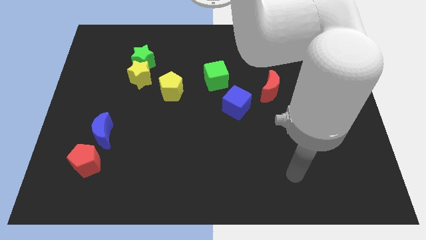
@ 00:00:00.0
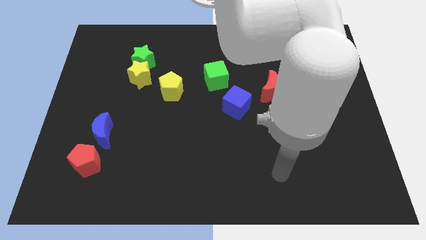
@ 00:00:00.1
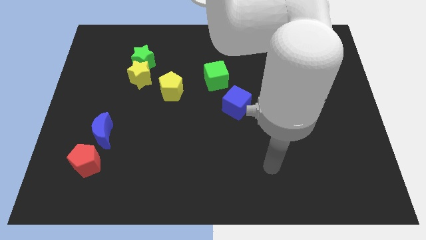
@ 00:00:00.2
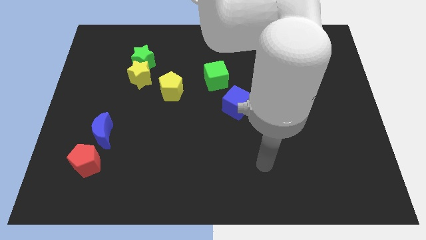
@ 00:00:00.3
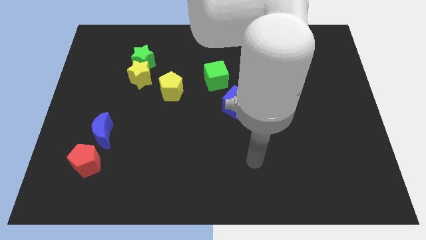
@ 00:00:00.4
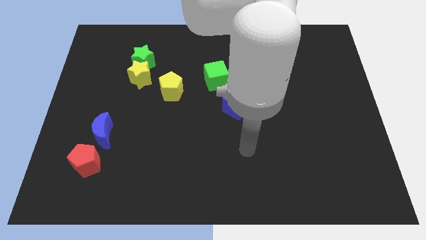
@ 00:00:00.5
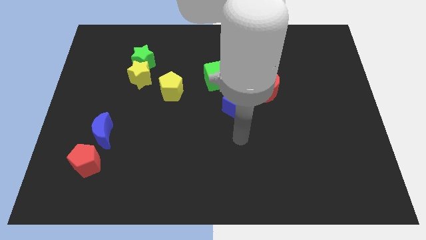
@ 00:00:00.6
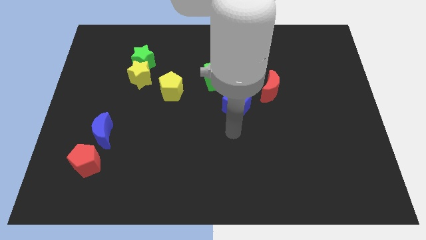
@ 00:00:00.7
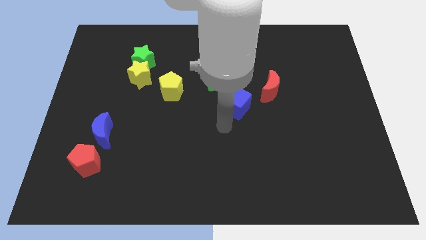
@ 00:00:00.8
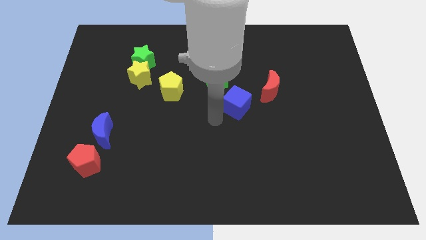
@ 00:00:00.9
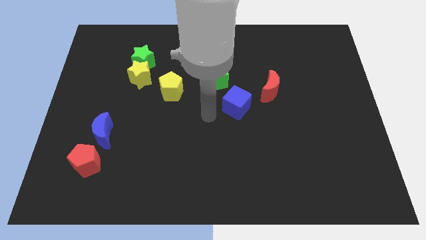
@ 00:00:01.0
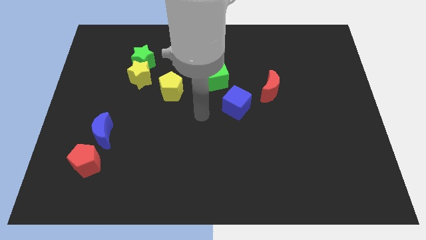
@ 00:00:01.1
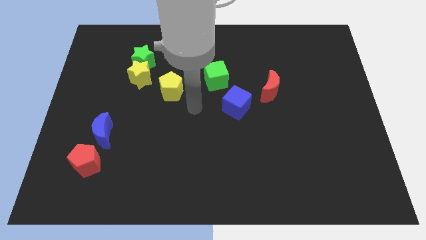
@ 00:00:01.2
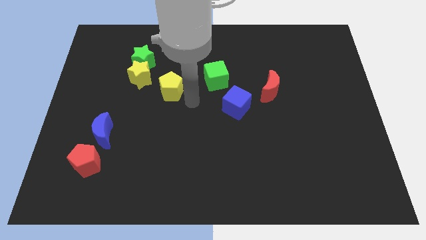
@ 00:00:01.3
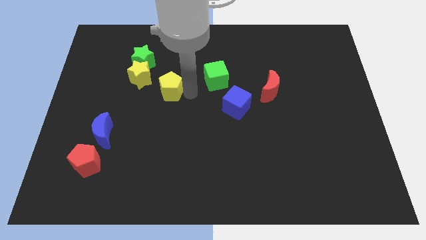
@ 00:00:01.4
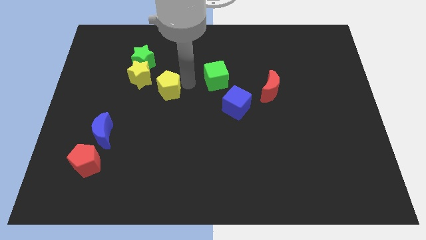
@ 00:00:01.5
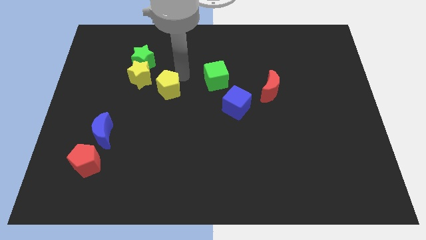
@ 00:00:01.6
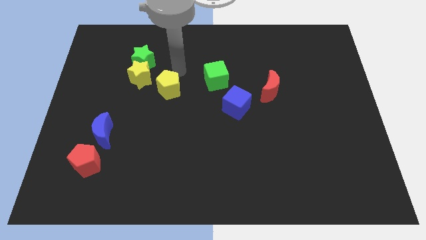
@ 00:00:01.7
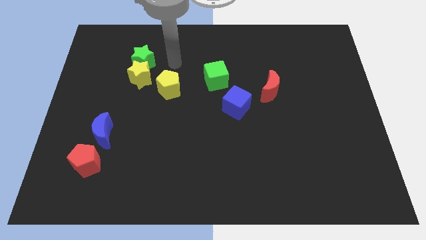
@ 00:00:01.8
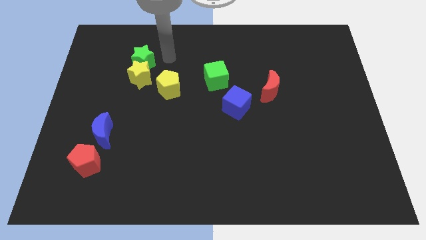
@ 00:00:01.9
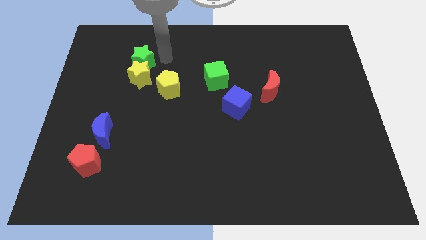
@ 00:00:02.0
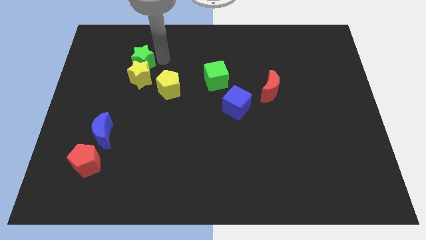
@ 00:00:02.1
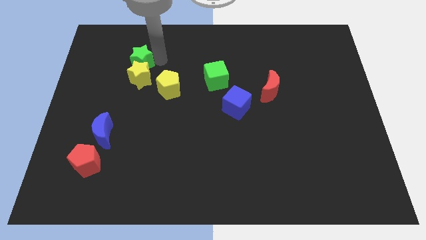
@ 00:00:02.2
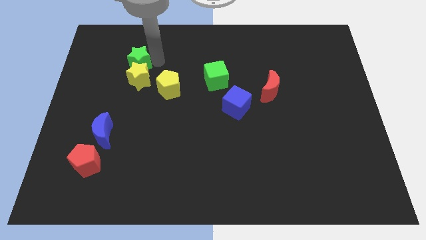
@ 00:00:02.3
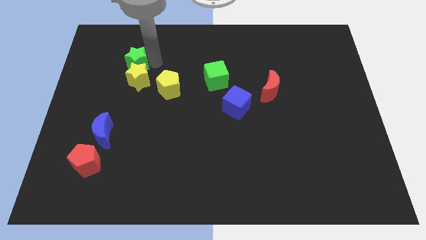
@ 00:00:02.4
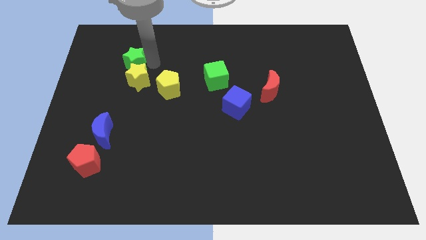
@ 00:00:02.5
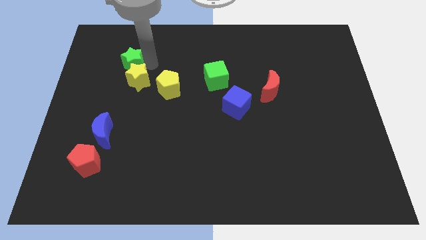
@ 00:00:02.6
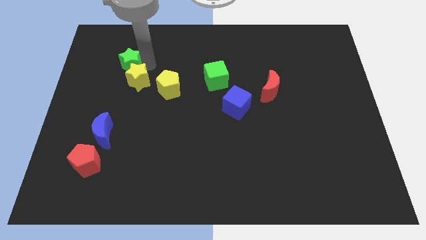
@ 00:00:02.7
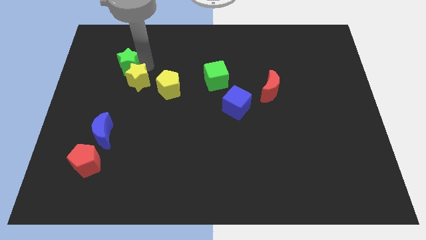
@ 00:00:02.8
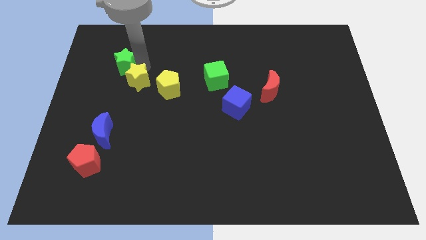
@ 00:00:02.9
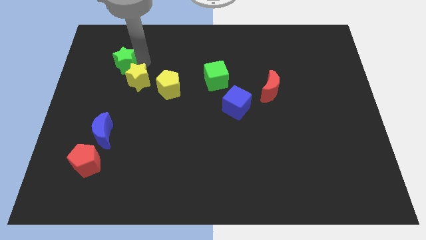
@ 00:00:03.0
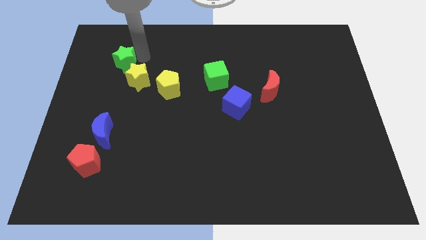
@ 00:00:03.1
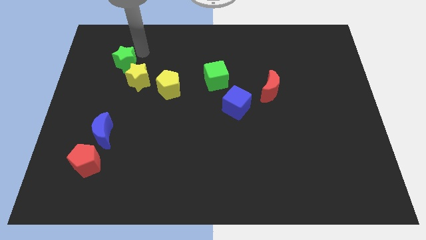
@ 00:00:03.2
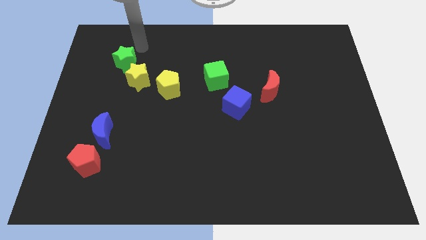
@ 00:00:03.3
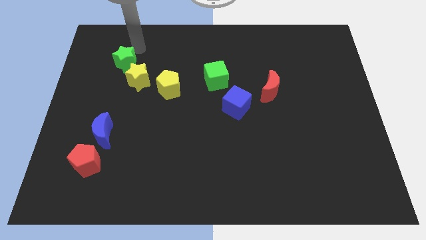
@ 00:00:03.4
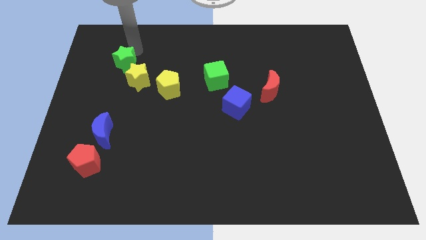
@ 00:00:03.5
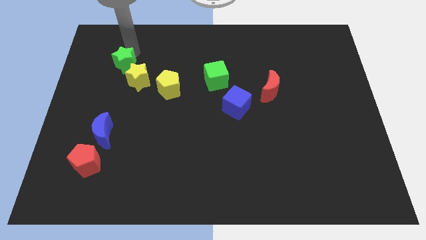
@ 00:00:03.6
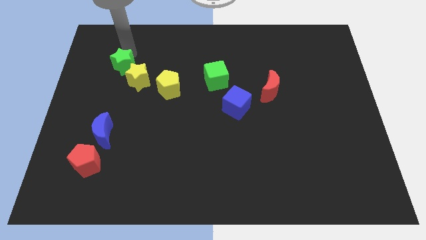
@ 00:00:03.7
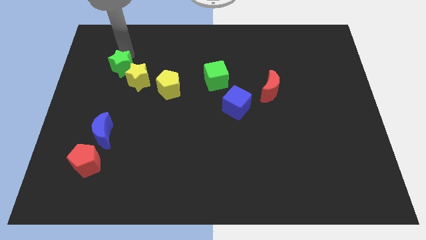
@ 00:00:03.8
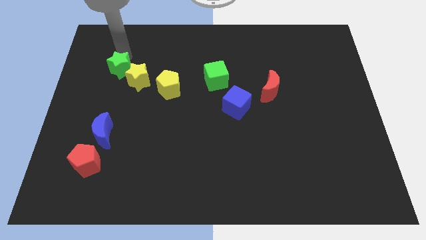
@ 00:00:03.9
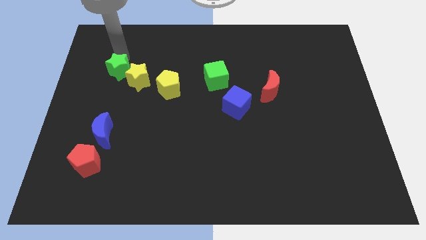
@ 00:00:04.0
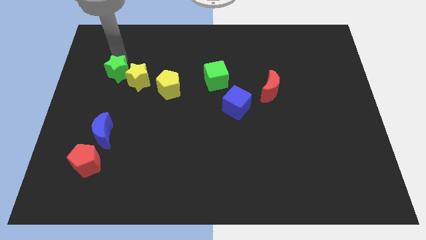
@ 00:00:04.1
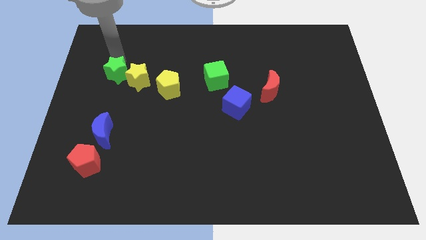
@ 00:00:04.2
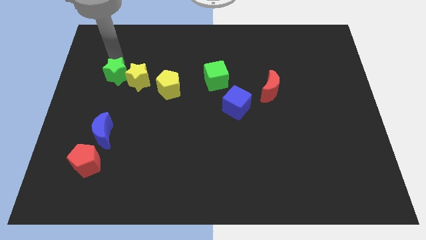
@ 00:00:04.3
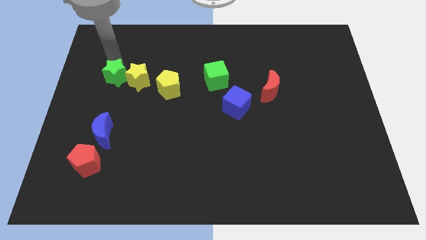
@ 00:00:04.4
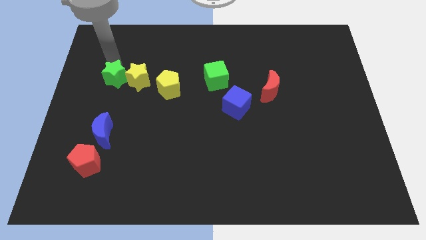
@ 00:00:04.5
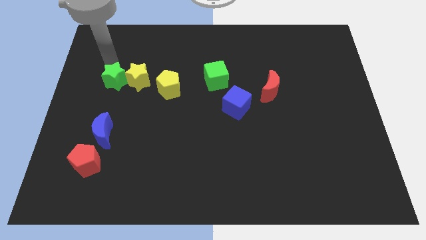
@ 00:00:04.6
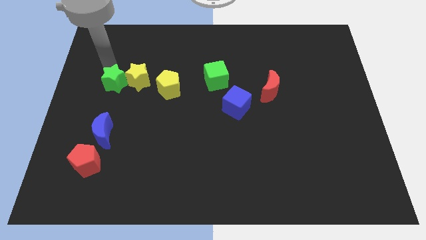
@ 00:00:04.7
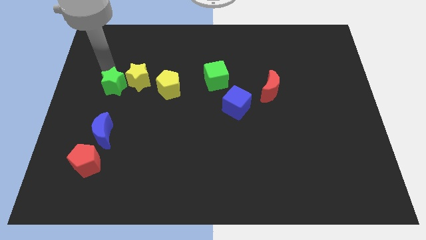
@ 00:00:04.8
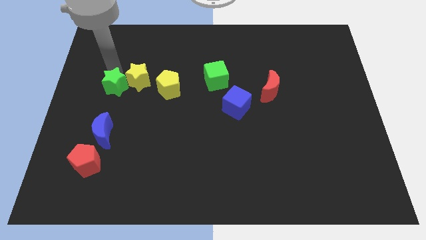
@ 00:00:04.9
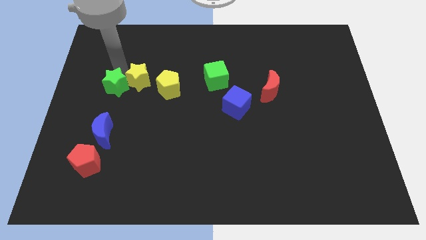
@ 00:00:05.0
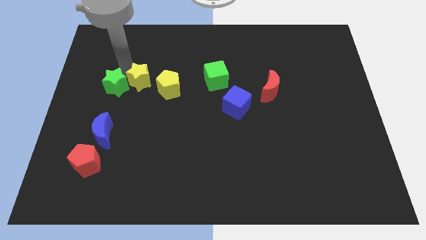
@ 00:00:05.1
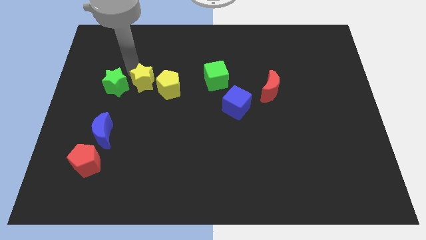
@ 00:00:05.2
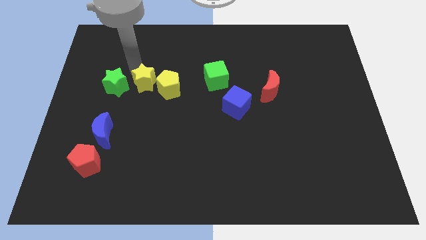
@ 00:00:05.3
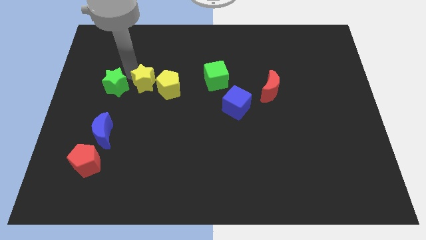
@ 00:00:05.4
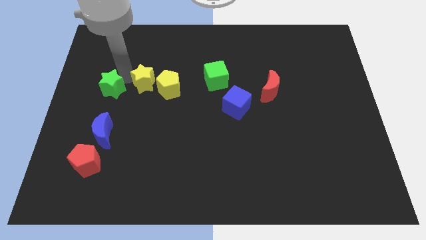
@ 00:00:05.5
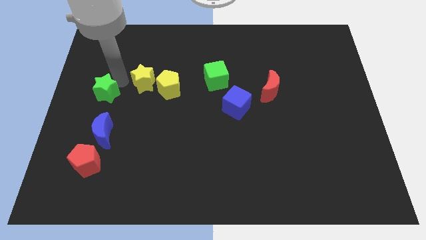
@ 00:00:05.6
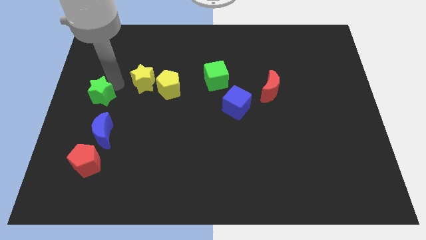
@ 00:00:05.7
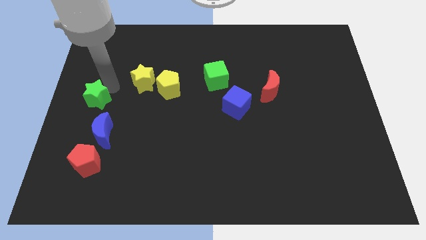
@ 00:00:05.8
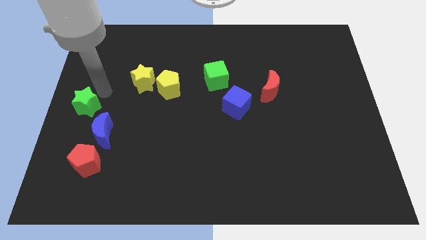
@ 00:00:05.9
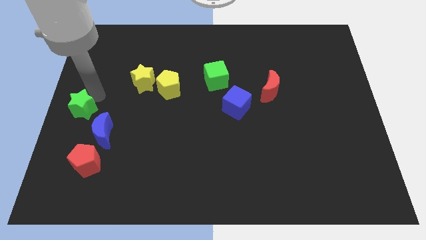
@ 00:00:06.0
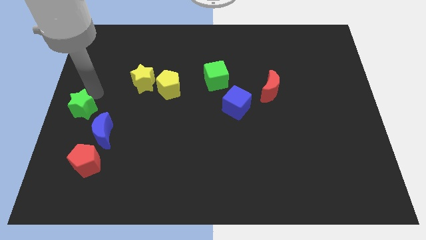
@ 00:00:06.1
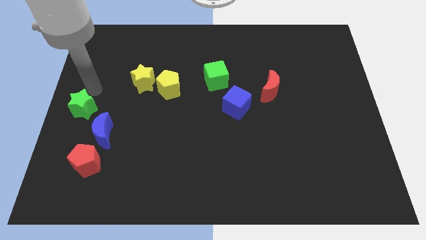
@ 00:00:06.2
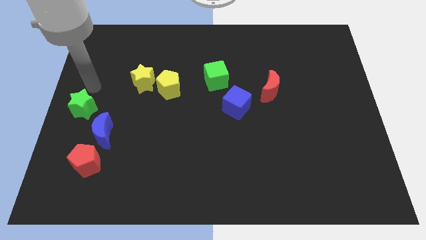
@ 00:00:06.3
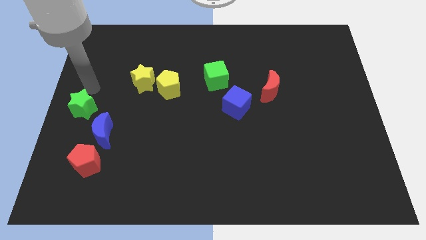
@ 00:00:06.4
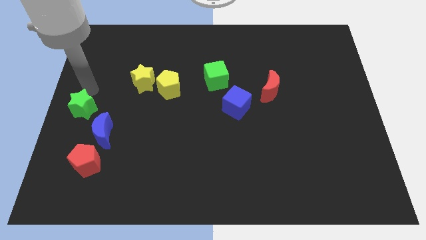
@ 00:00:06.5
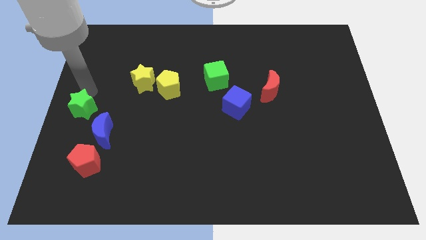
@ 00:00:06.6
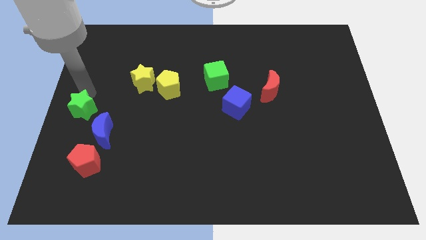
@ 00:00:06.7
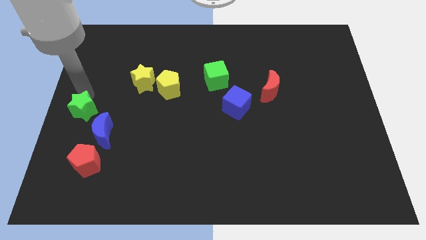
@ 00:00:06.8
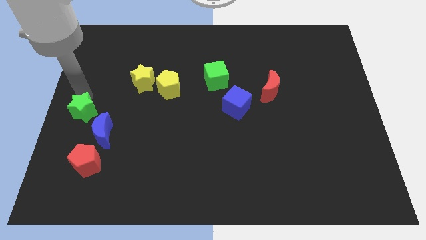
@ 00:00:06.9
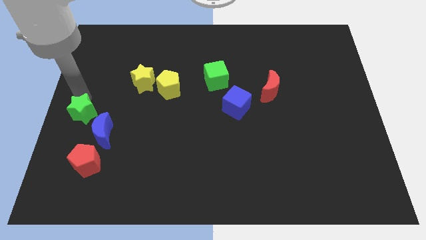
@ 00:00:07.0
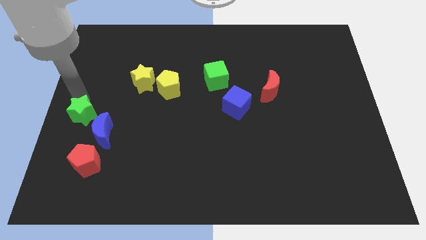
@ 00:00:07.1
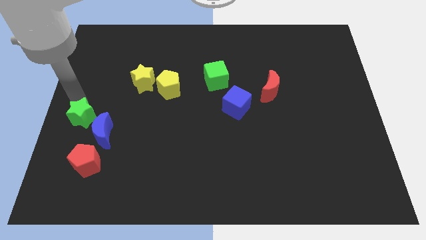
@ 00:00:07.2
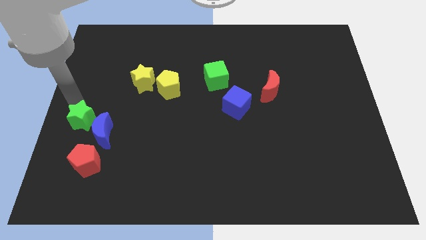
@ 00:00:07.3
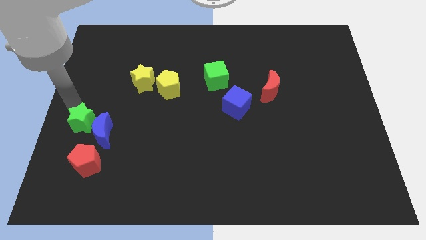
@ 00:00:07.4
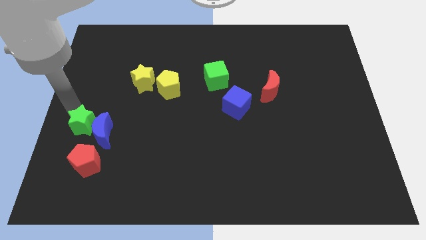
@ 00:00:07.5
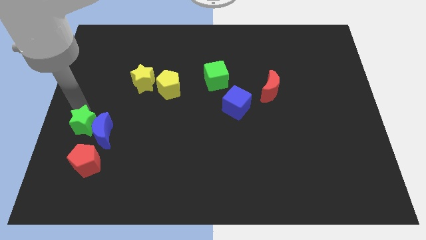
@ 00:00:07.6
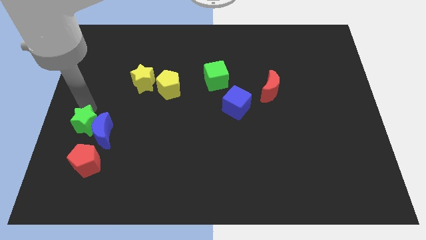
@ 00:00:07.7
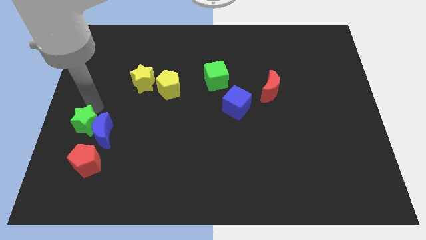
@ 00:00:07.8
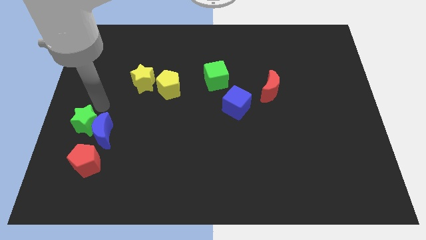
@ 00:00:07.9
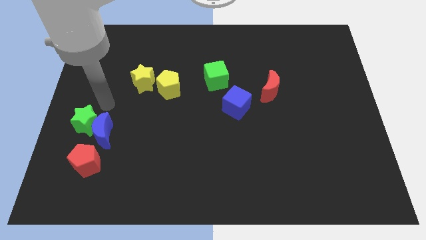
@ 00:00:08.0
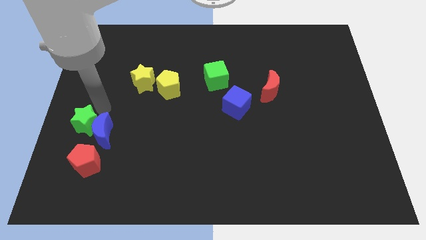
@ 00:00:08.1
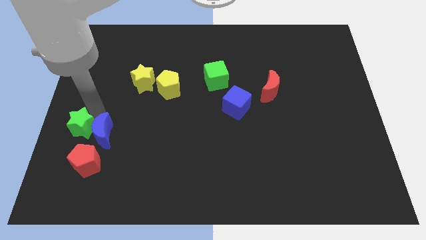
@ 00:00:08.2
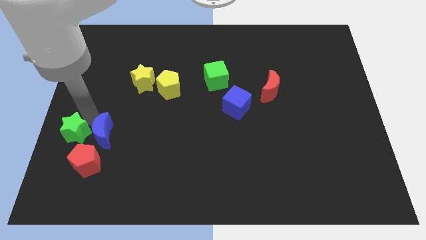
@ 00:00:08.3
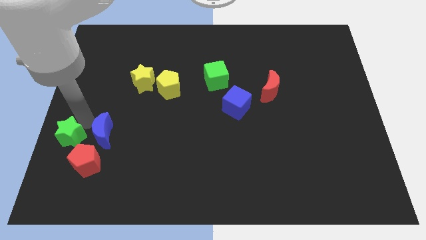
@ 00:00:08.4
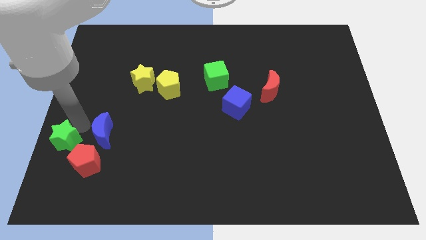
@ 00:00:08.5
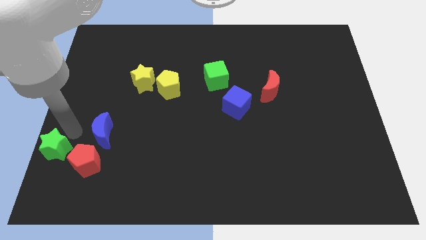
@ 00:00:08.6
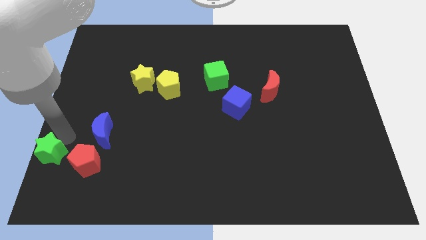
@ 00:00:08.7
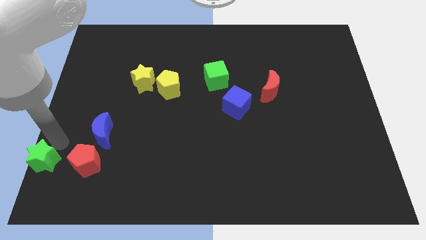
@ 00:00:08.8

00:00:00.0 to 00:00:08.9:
slide the green star to the bottom left of the board
